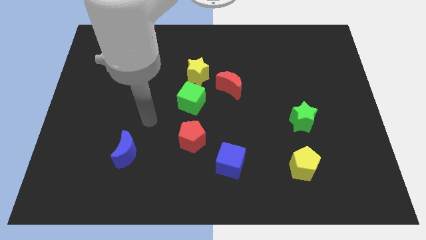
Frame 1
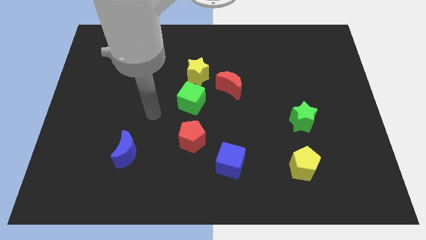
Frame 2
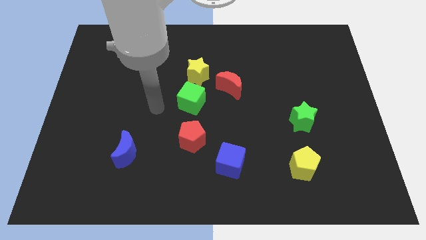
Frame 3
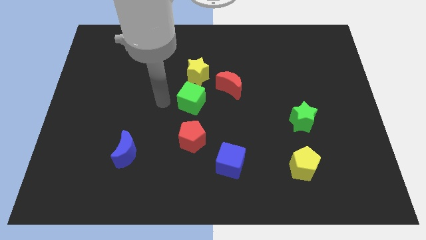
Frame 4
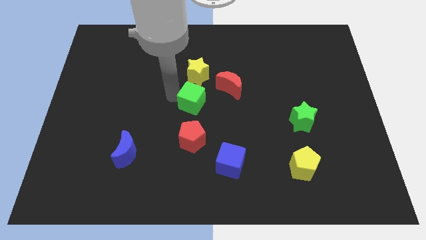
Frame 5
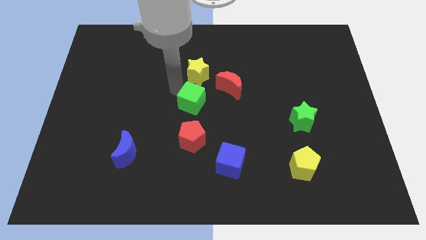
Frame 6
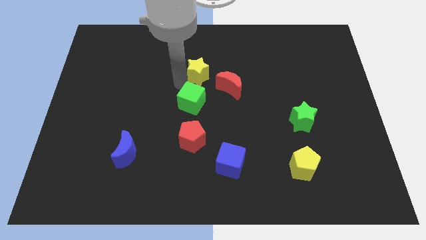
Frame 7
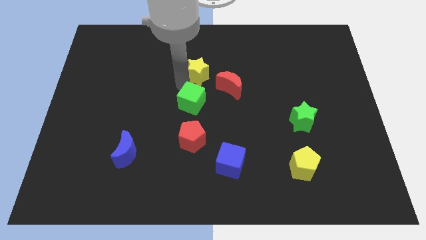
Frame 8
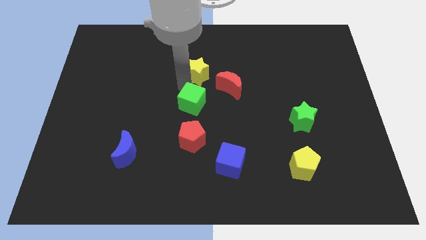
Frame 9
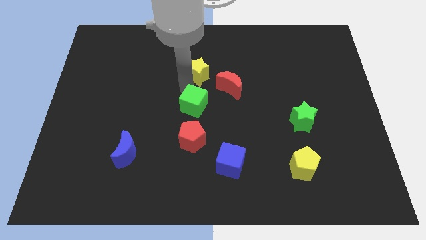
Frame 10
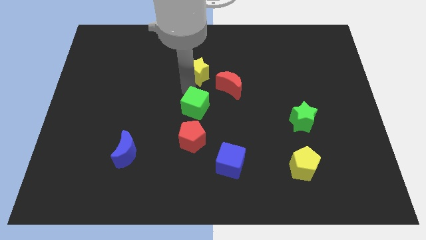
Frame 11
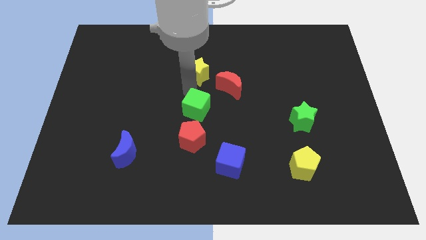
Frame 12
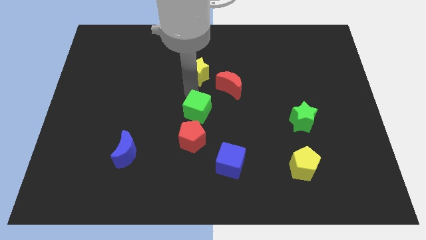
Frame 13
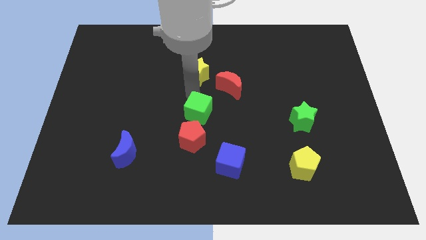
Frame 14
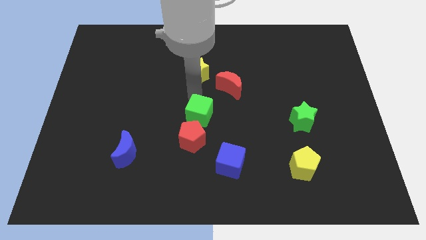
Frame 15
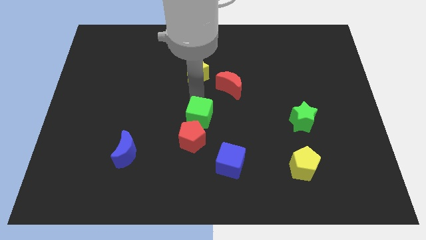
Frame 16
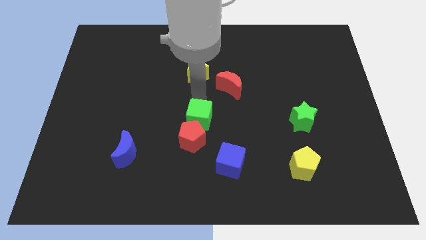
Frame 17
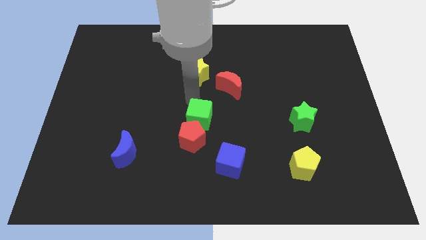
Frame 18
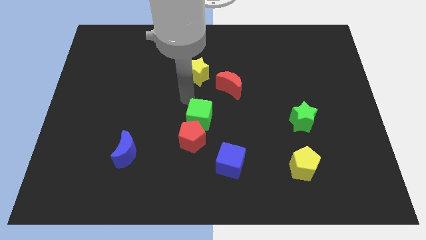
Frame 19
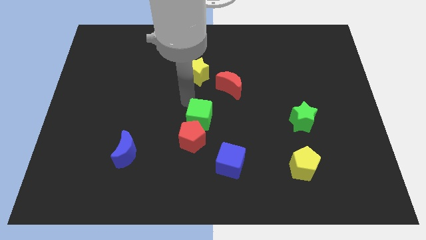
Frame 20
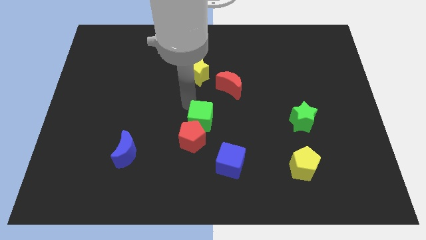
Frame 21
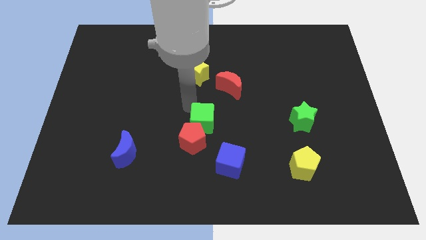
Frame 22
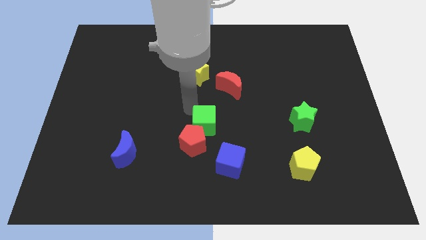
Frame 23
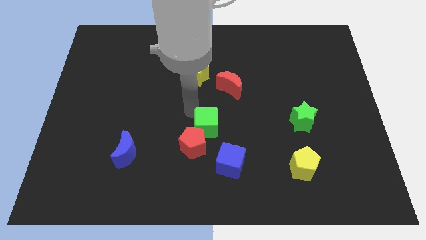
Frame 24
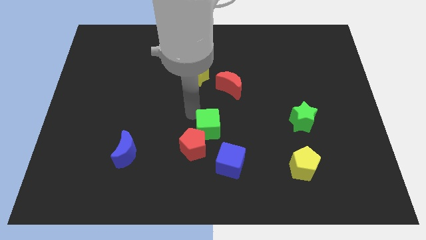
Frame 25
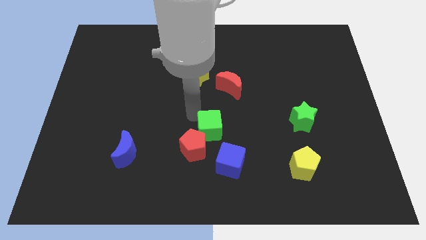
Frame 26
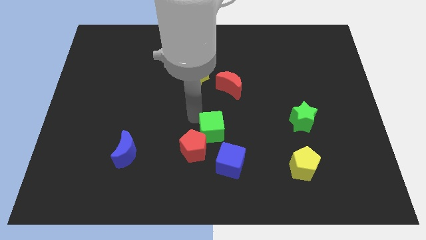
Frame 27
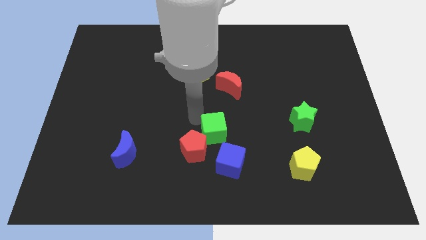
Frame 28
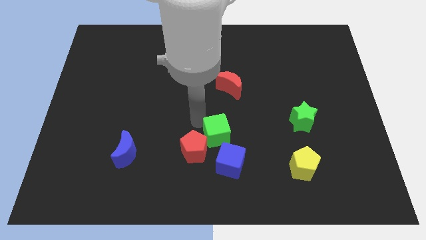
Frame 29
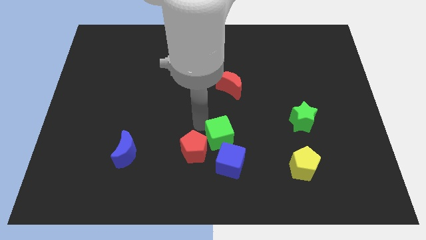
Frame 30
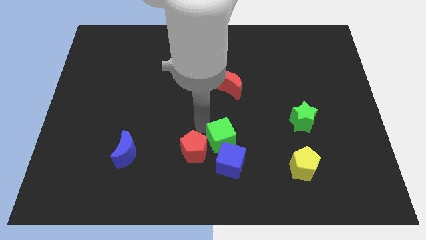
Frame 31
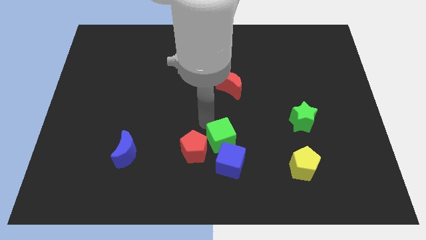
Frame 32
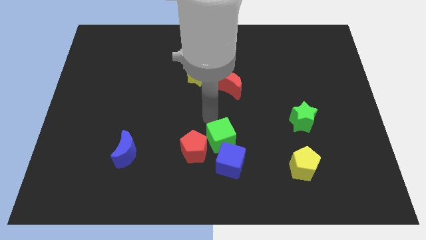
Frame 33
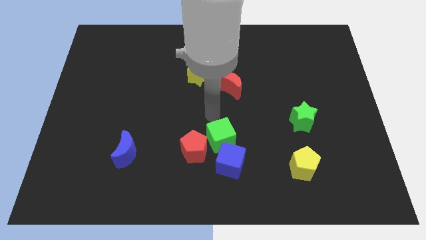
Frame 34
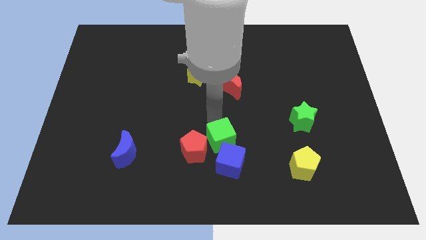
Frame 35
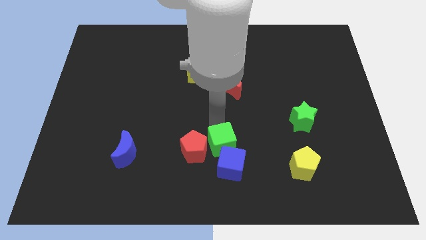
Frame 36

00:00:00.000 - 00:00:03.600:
move the green cube to the blue cube

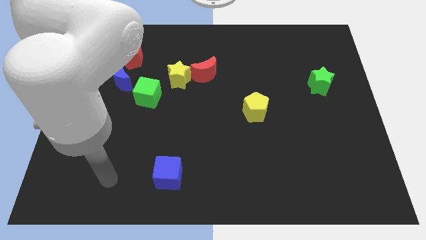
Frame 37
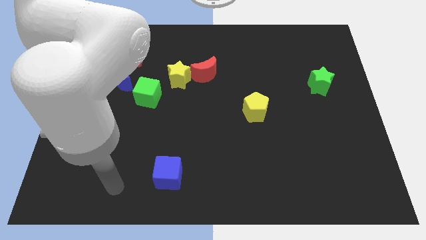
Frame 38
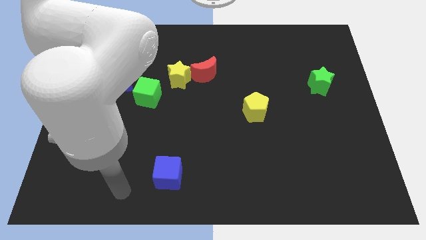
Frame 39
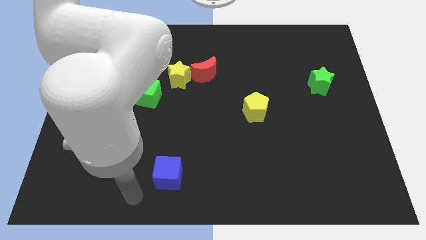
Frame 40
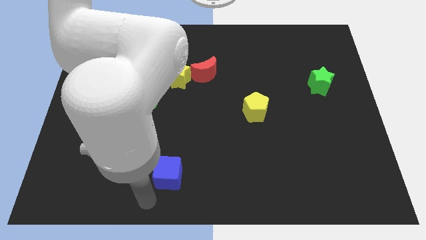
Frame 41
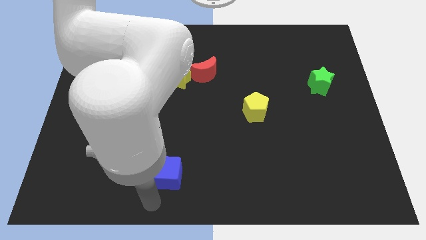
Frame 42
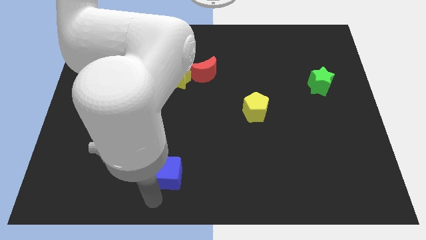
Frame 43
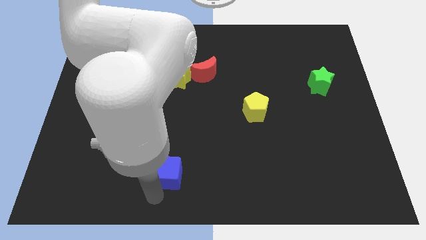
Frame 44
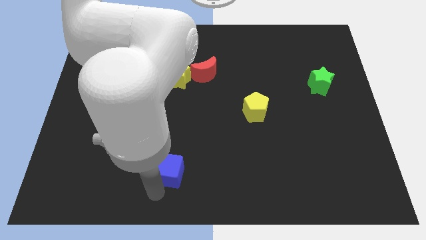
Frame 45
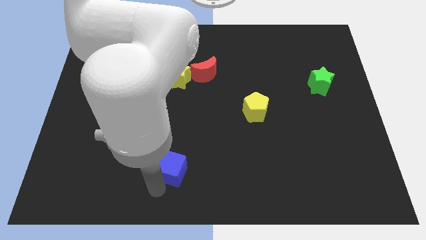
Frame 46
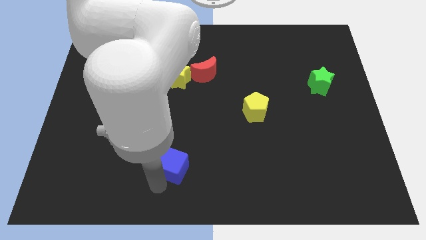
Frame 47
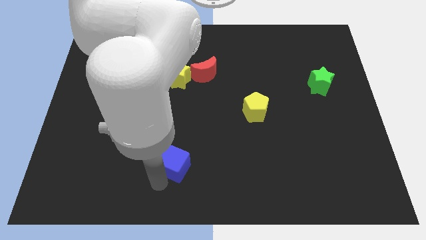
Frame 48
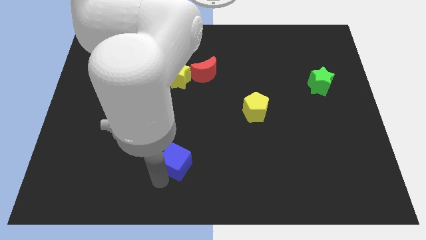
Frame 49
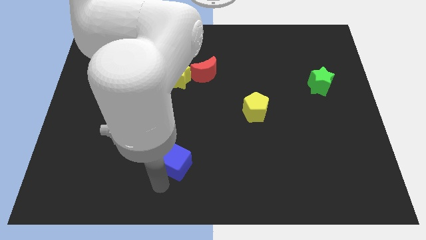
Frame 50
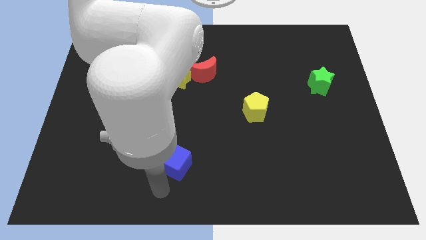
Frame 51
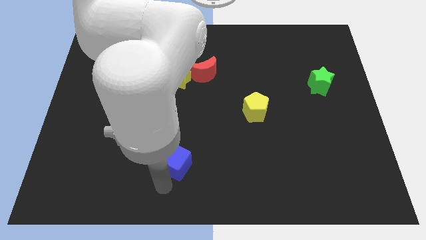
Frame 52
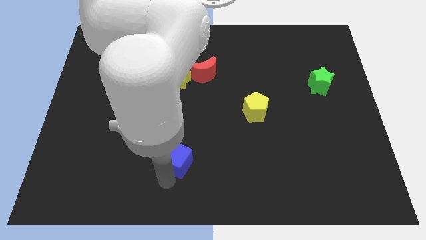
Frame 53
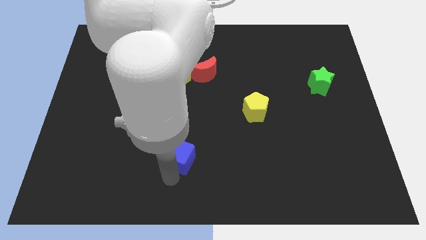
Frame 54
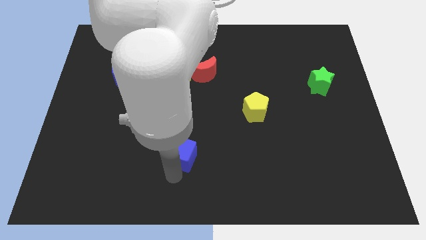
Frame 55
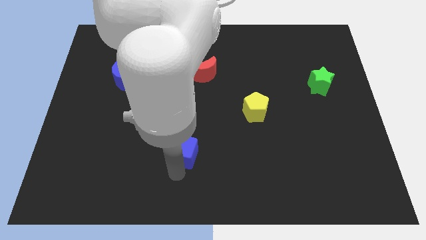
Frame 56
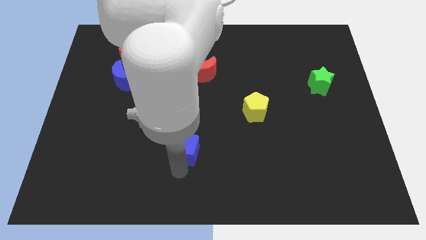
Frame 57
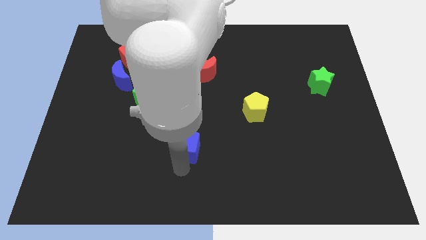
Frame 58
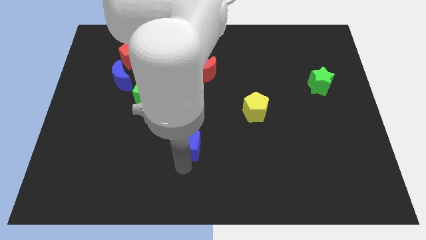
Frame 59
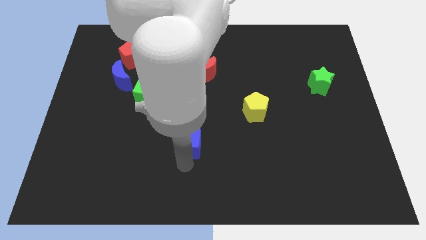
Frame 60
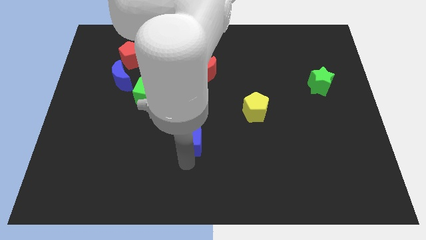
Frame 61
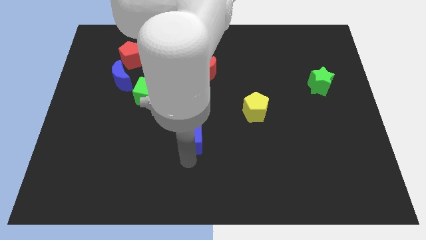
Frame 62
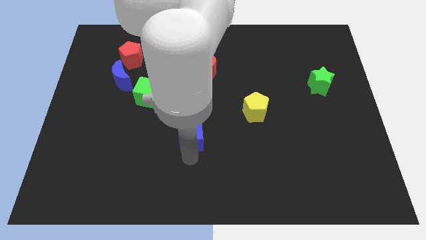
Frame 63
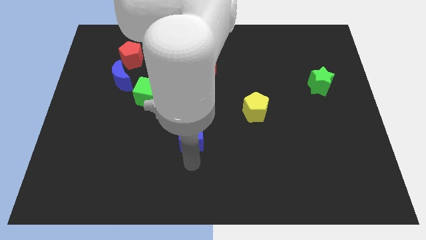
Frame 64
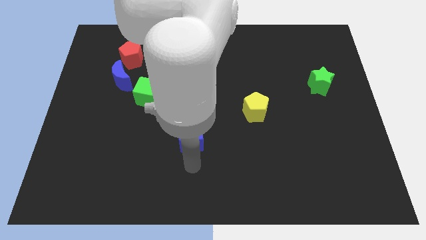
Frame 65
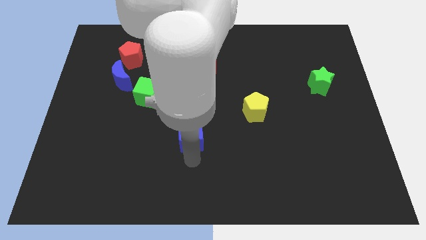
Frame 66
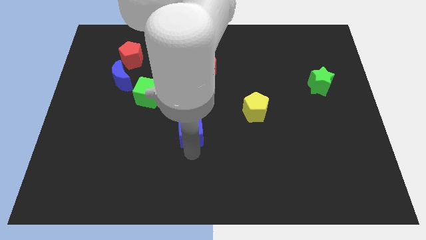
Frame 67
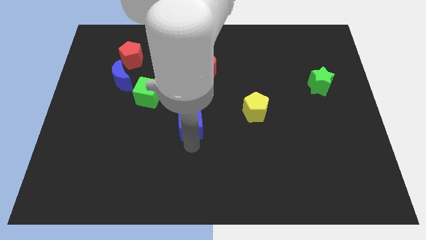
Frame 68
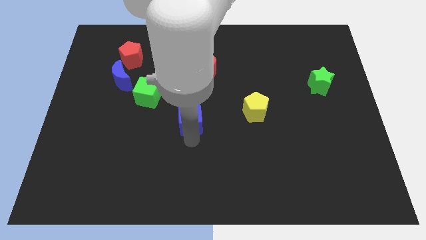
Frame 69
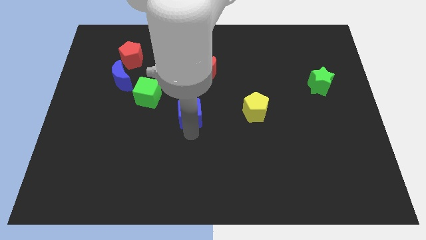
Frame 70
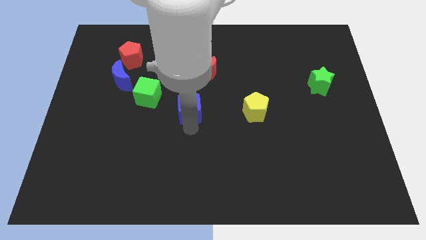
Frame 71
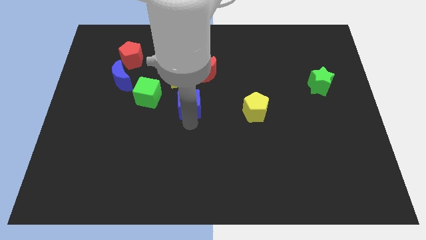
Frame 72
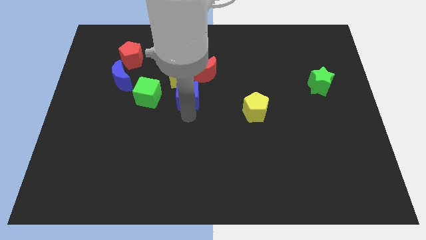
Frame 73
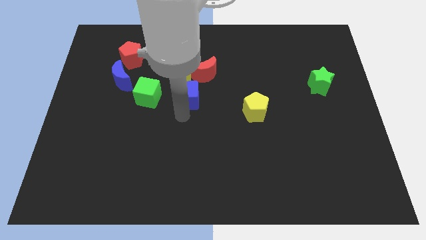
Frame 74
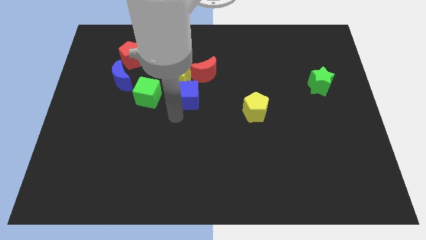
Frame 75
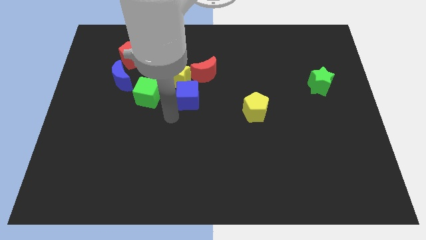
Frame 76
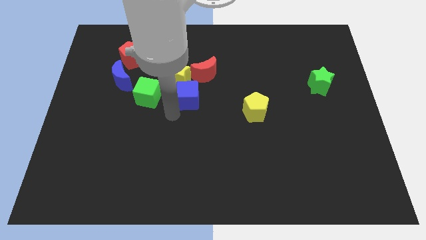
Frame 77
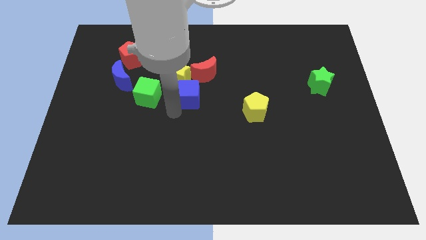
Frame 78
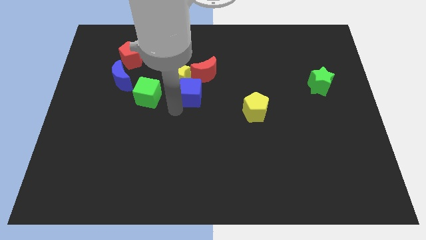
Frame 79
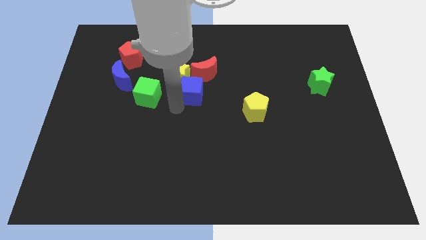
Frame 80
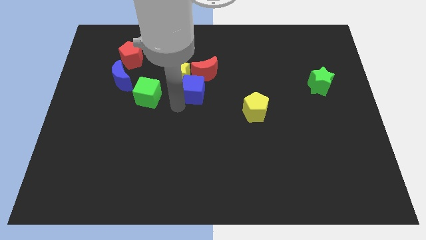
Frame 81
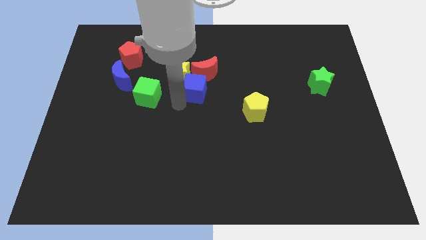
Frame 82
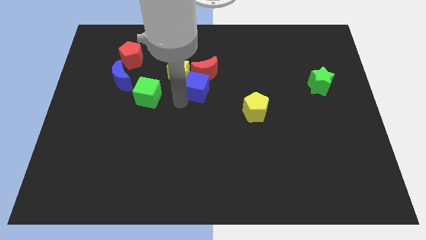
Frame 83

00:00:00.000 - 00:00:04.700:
put the blue cube close to the red moon

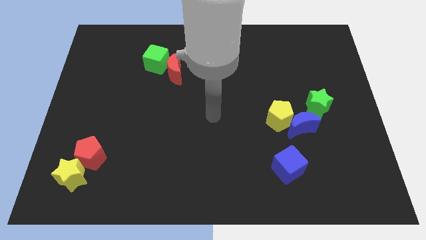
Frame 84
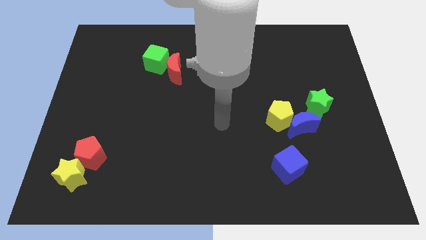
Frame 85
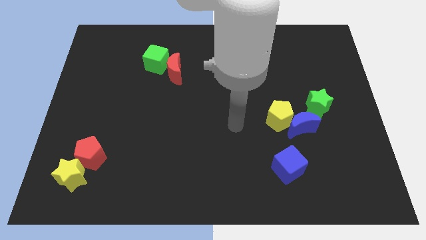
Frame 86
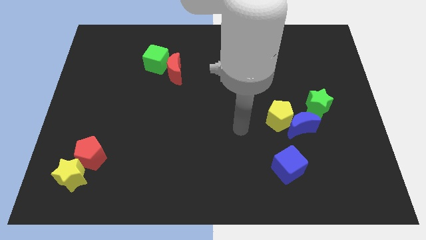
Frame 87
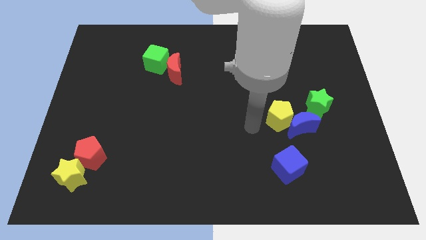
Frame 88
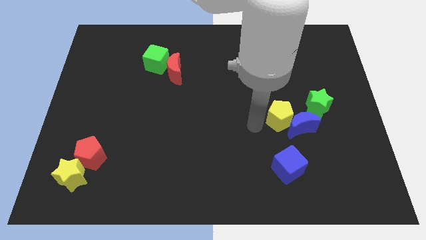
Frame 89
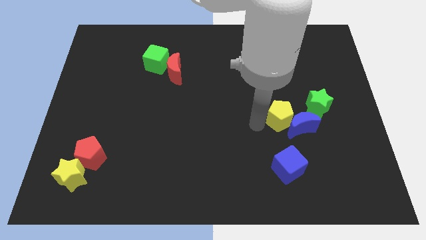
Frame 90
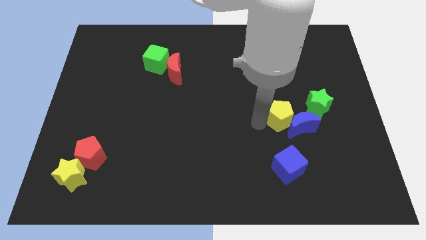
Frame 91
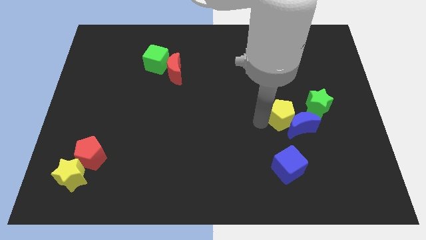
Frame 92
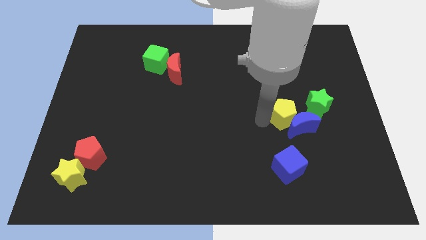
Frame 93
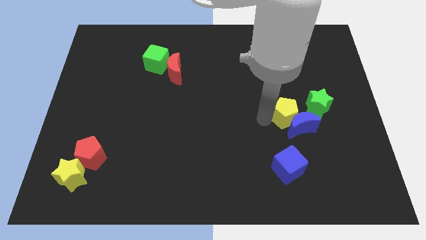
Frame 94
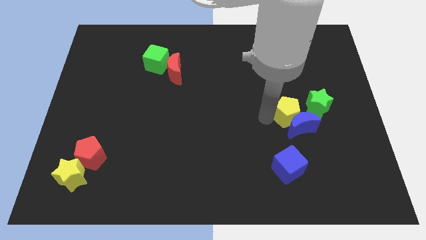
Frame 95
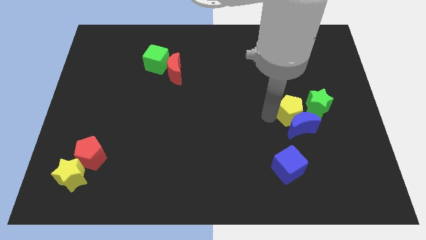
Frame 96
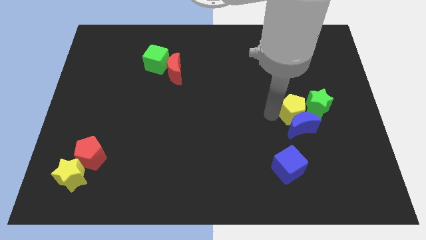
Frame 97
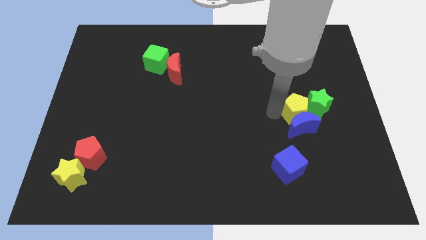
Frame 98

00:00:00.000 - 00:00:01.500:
slide the yellow pentagon close to the green star
